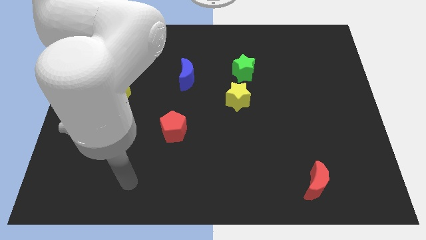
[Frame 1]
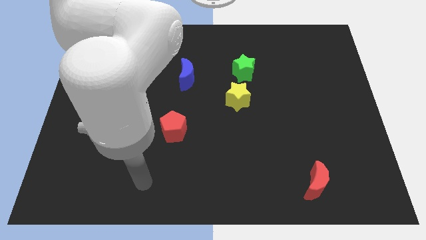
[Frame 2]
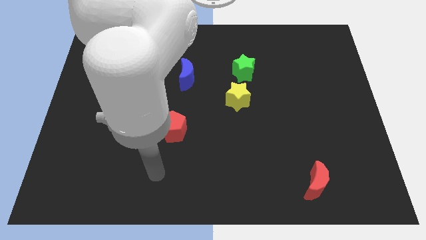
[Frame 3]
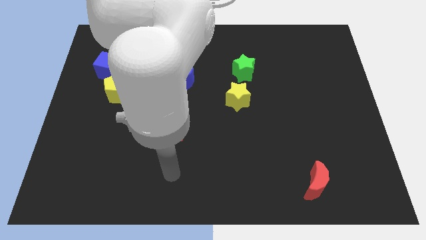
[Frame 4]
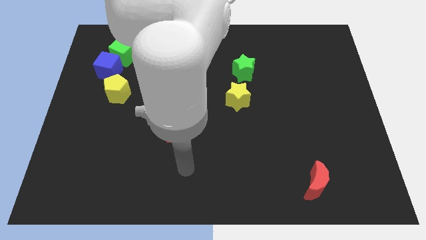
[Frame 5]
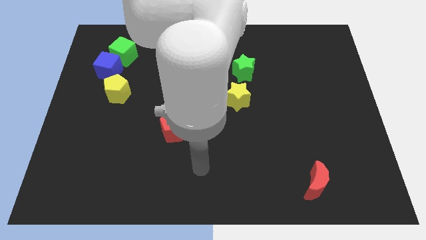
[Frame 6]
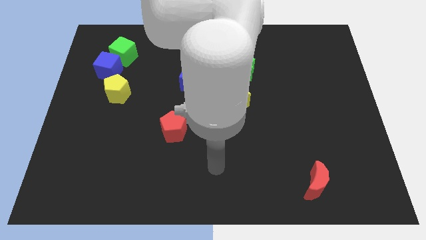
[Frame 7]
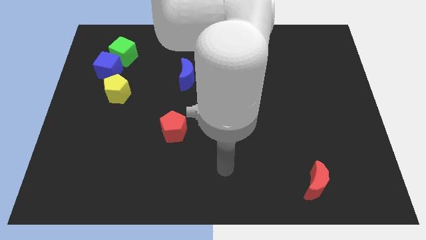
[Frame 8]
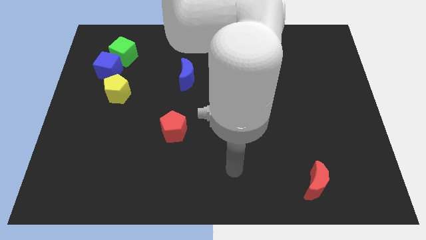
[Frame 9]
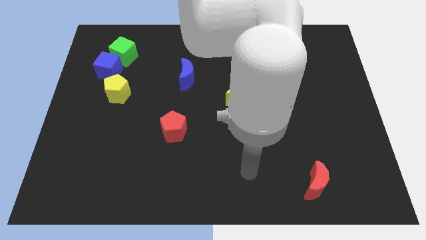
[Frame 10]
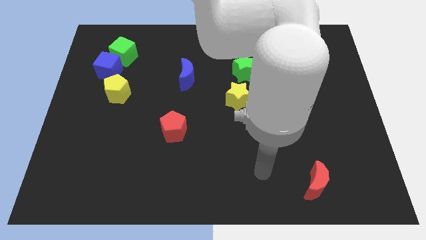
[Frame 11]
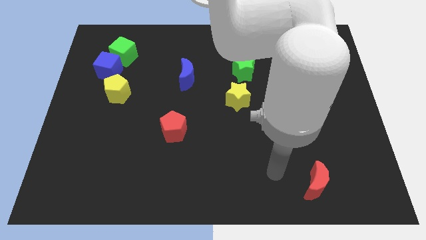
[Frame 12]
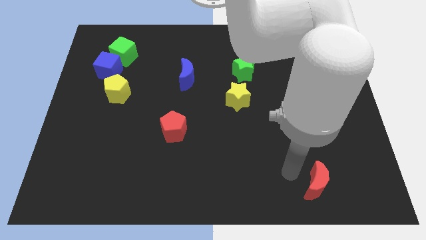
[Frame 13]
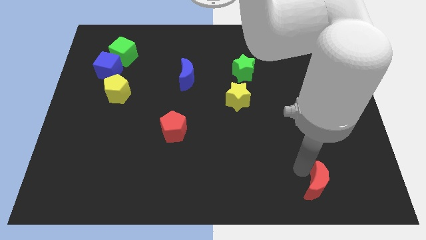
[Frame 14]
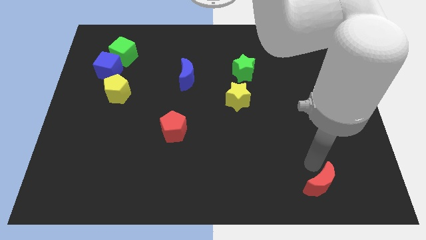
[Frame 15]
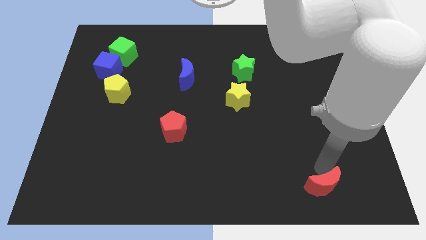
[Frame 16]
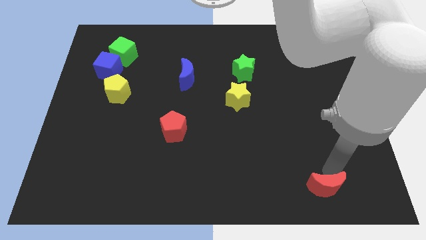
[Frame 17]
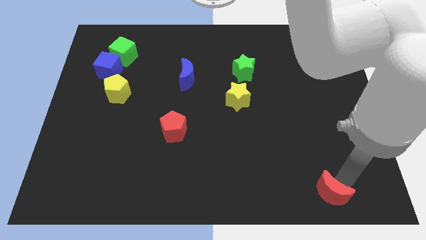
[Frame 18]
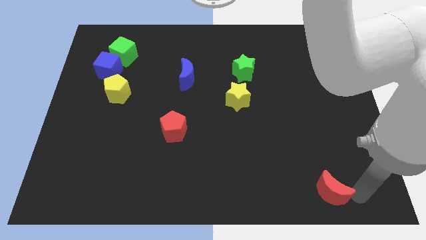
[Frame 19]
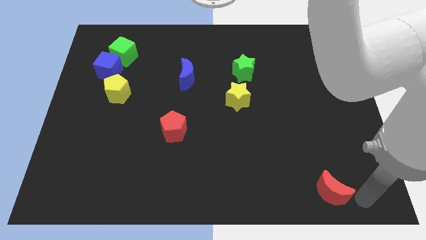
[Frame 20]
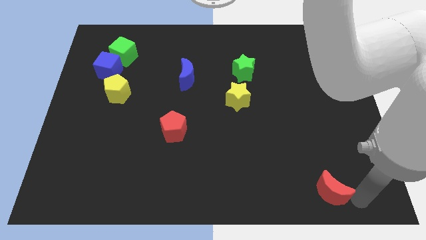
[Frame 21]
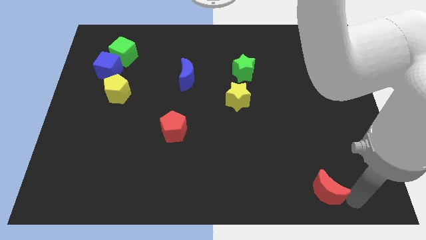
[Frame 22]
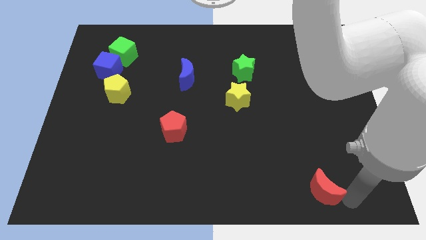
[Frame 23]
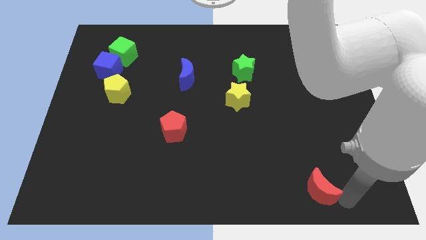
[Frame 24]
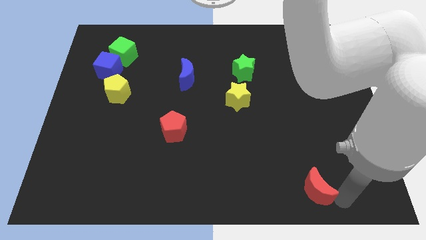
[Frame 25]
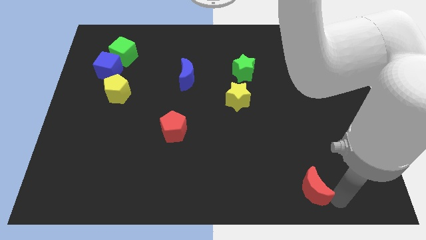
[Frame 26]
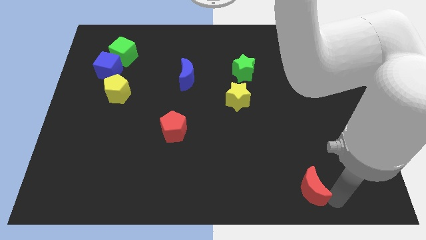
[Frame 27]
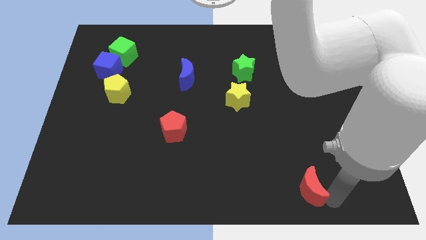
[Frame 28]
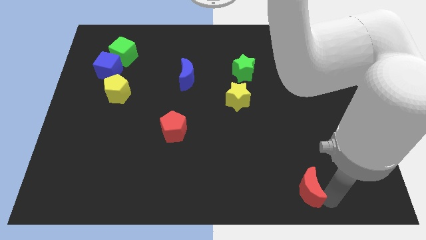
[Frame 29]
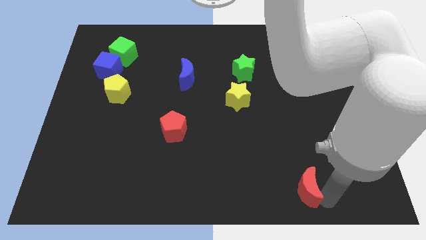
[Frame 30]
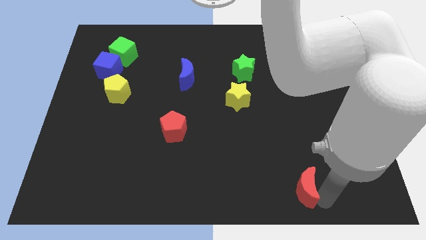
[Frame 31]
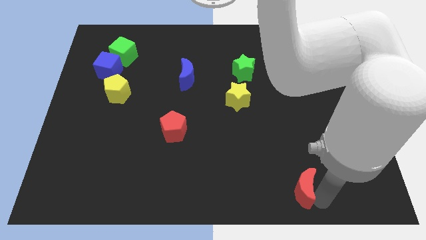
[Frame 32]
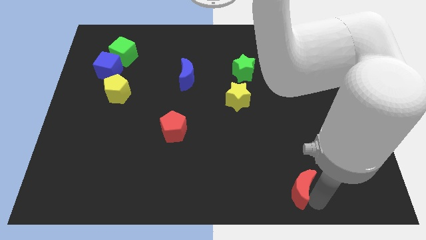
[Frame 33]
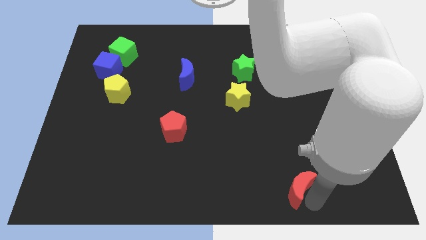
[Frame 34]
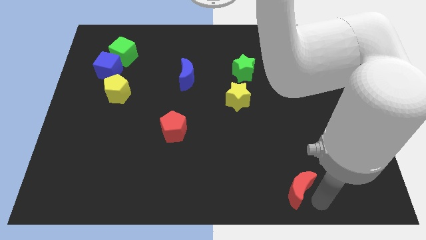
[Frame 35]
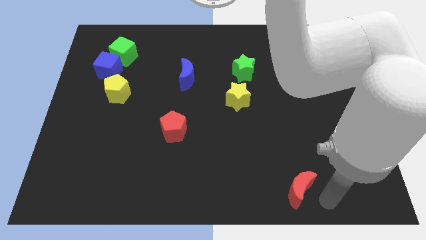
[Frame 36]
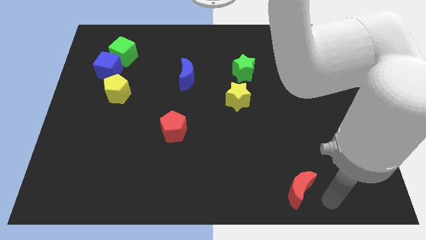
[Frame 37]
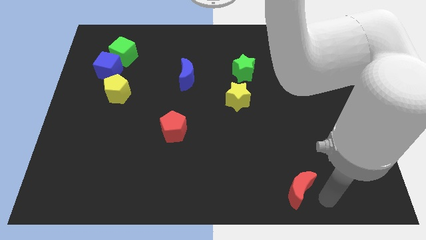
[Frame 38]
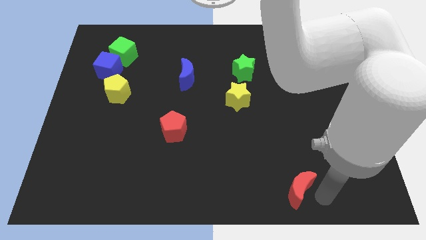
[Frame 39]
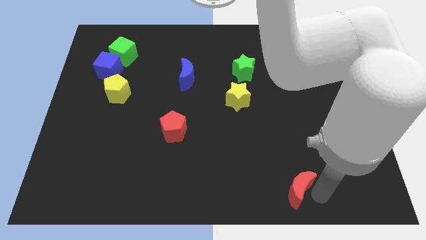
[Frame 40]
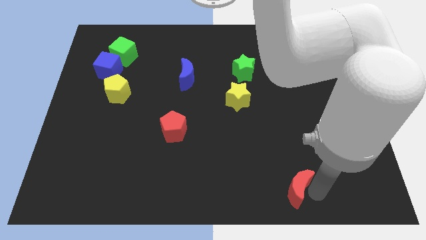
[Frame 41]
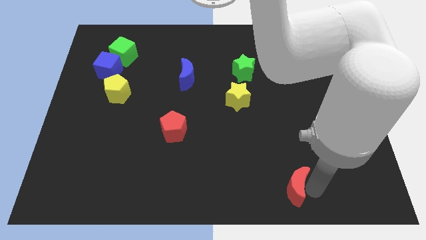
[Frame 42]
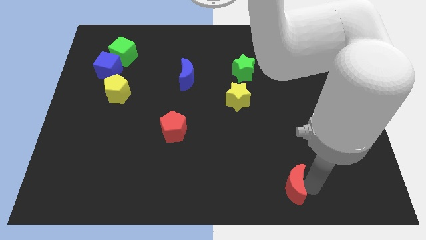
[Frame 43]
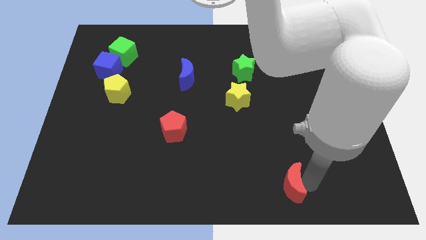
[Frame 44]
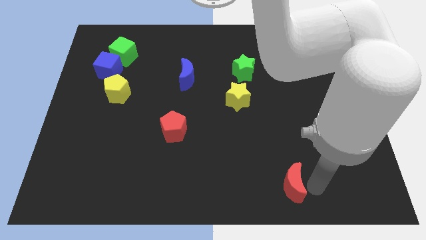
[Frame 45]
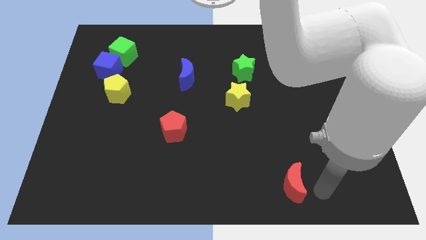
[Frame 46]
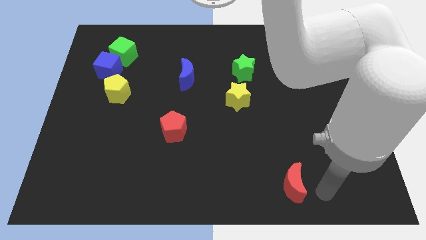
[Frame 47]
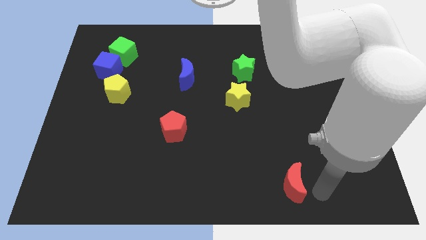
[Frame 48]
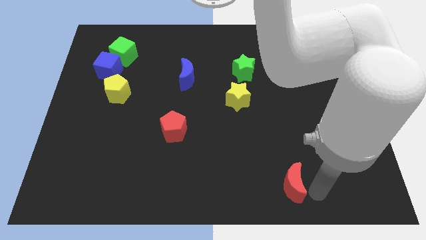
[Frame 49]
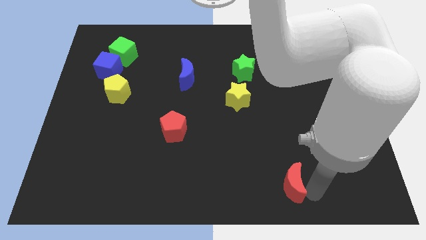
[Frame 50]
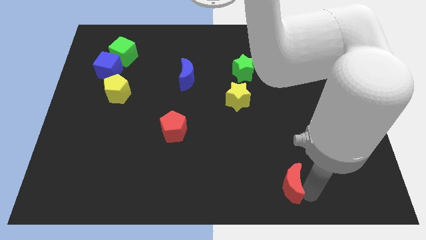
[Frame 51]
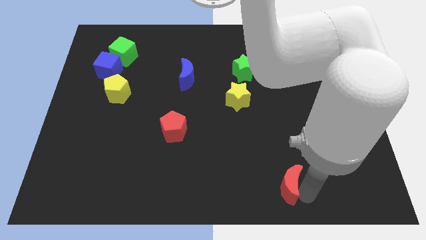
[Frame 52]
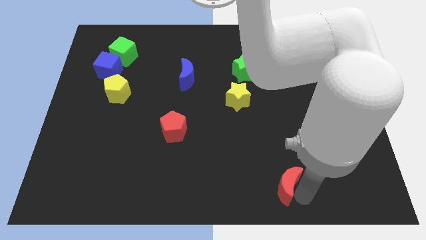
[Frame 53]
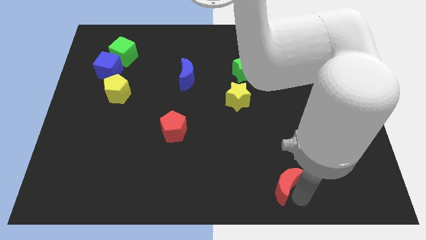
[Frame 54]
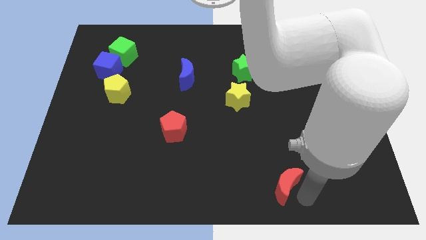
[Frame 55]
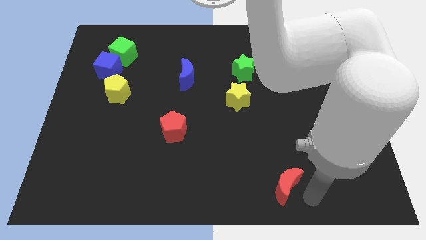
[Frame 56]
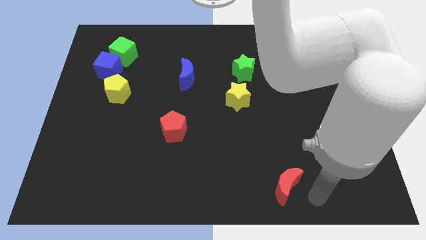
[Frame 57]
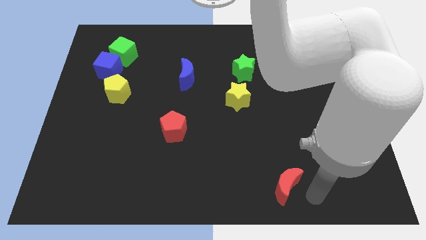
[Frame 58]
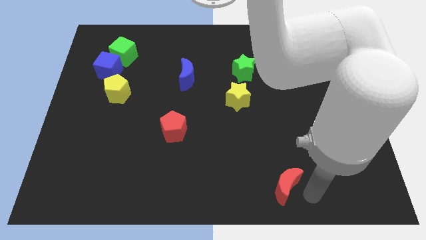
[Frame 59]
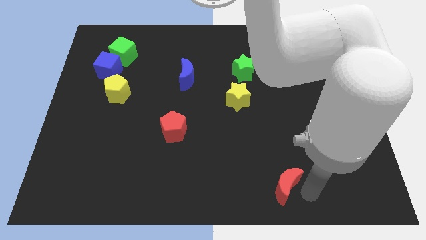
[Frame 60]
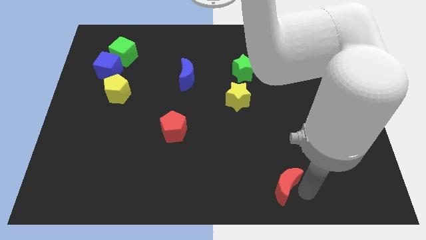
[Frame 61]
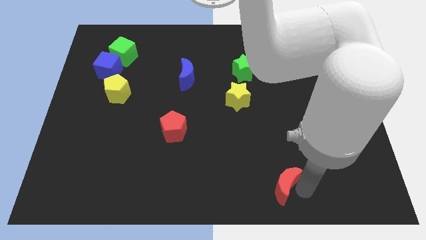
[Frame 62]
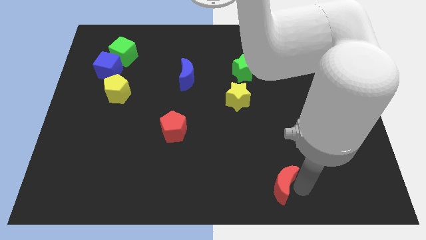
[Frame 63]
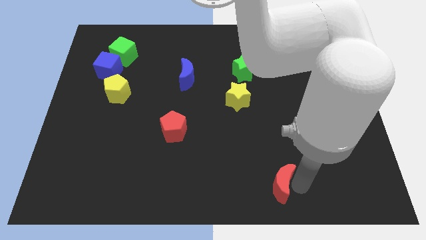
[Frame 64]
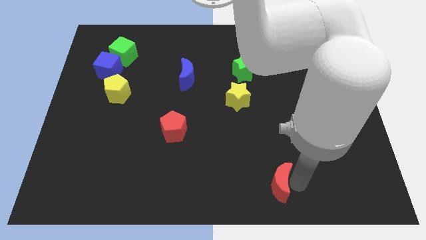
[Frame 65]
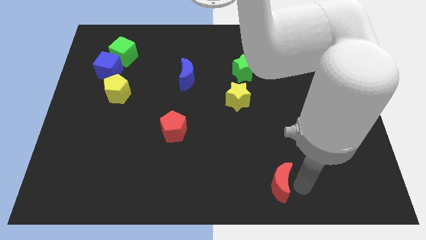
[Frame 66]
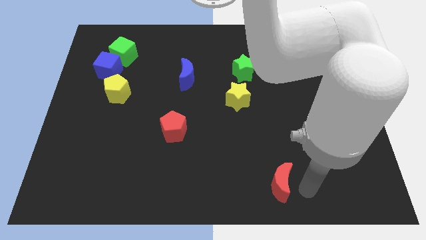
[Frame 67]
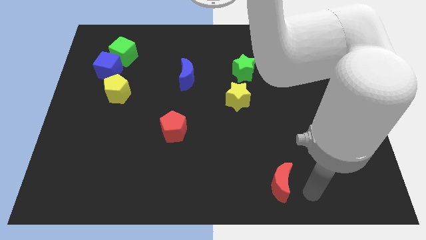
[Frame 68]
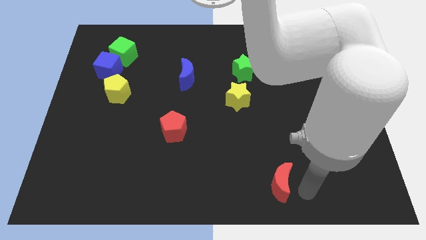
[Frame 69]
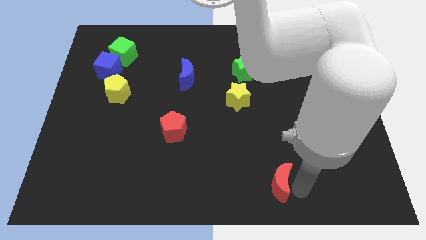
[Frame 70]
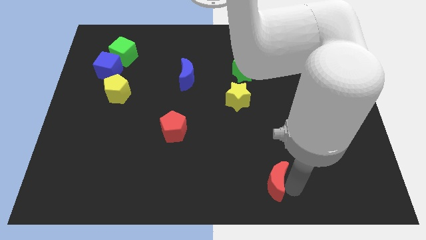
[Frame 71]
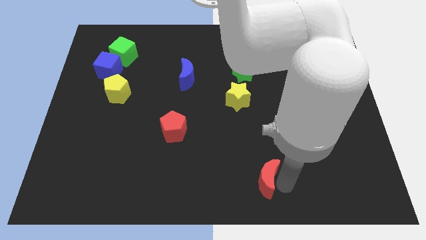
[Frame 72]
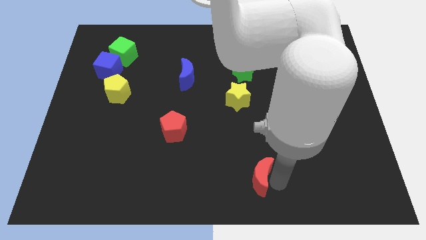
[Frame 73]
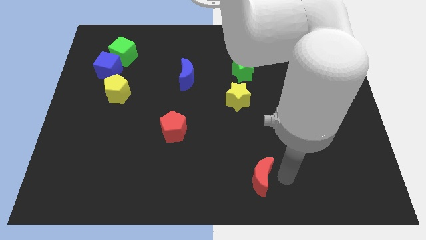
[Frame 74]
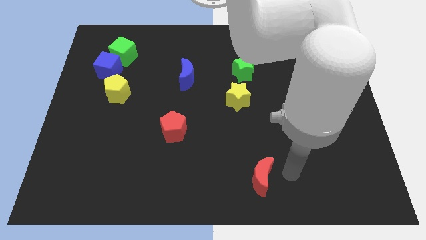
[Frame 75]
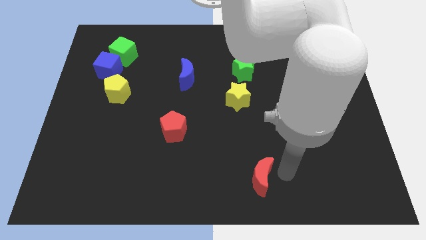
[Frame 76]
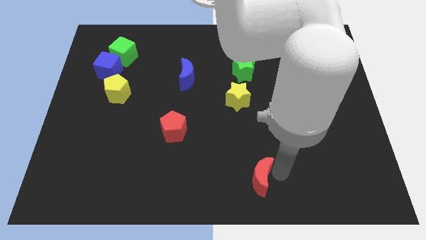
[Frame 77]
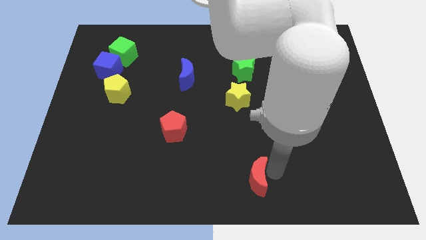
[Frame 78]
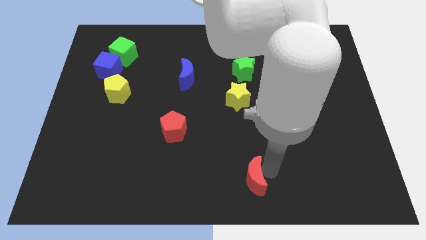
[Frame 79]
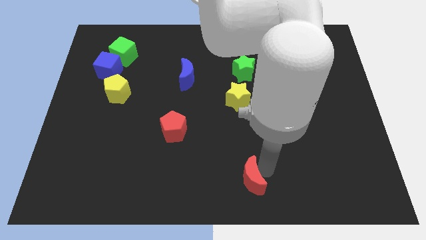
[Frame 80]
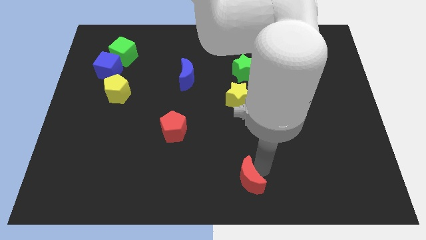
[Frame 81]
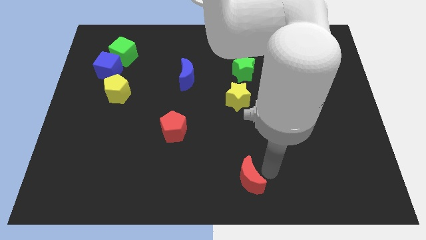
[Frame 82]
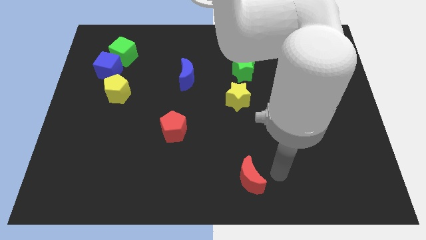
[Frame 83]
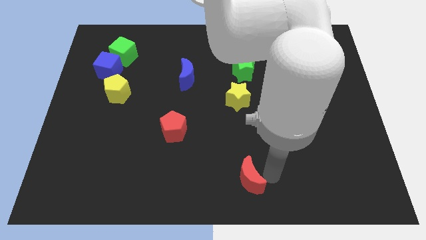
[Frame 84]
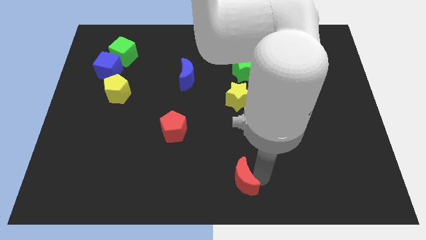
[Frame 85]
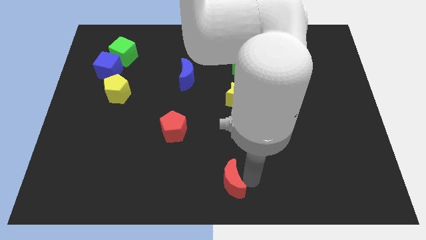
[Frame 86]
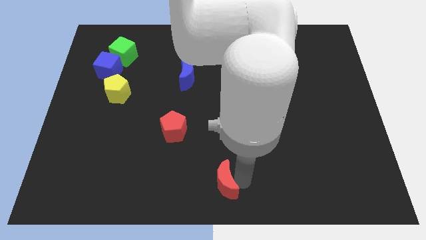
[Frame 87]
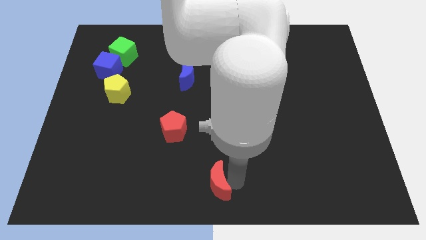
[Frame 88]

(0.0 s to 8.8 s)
push the red moon left
